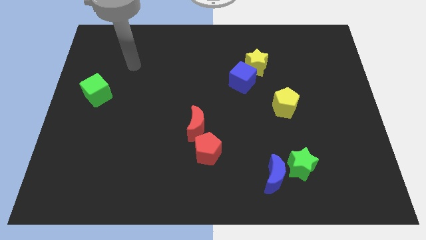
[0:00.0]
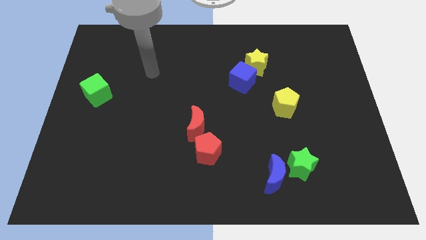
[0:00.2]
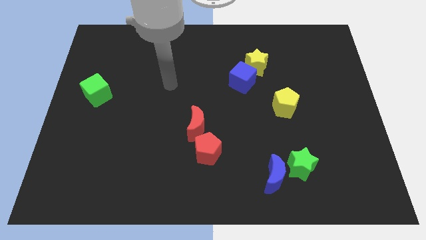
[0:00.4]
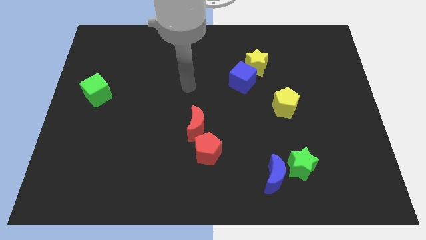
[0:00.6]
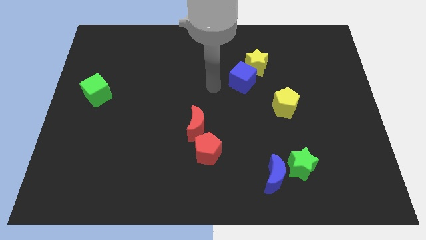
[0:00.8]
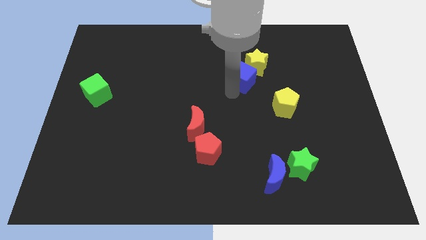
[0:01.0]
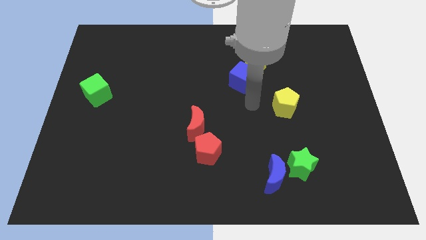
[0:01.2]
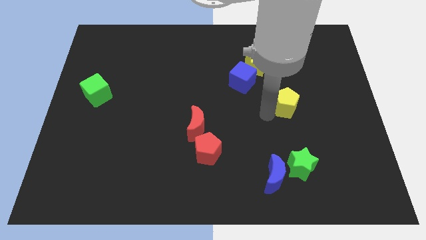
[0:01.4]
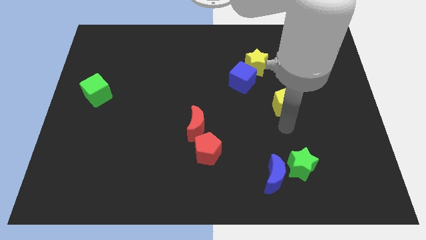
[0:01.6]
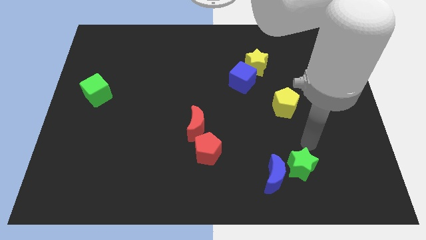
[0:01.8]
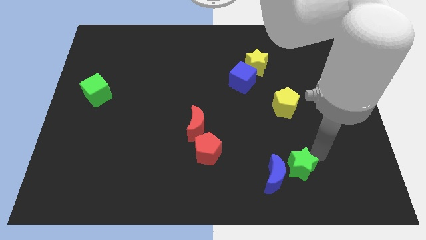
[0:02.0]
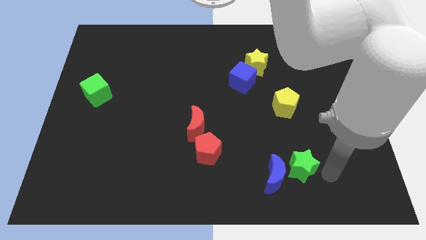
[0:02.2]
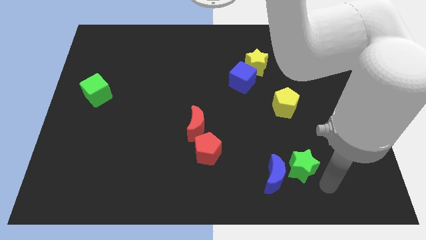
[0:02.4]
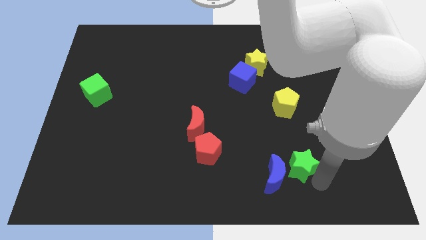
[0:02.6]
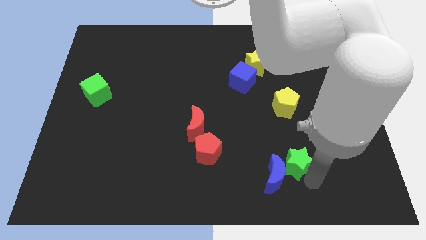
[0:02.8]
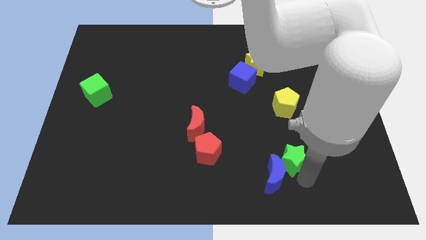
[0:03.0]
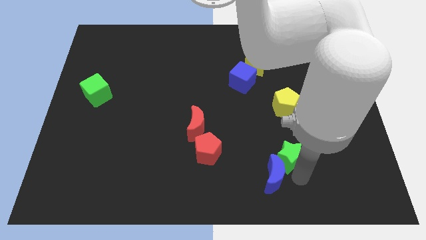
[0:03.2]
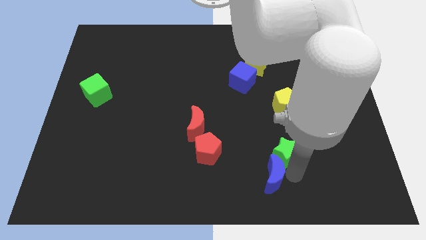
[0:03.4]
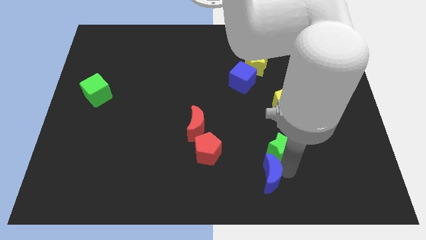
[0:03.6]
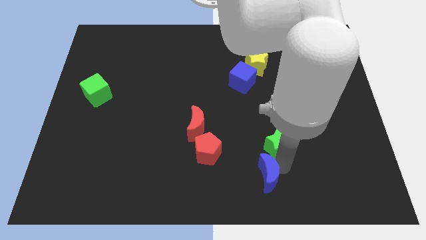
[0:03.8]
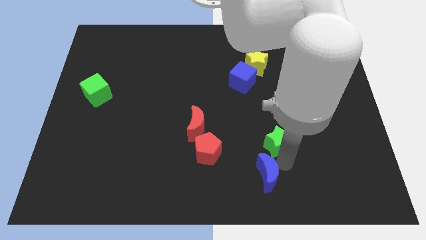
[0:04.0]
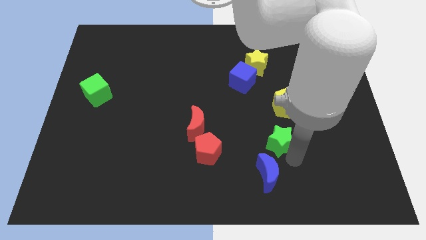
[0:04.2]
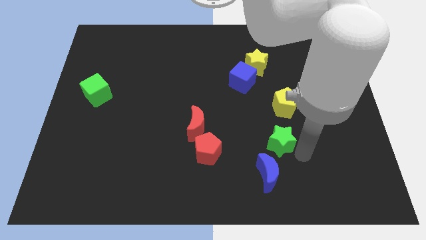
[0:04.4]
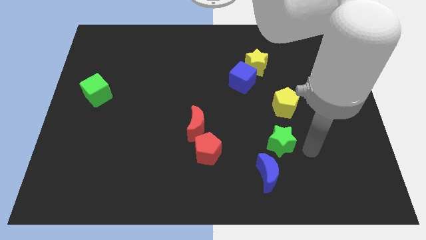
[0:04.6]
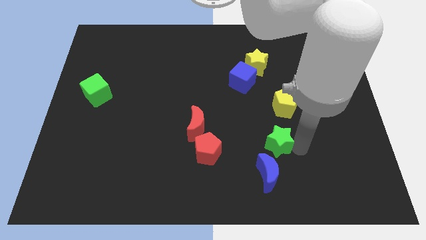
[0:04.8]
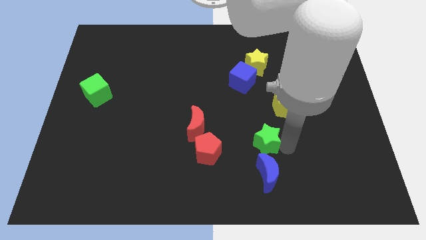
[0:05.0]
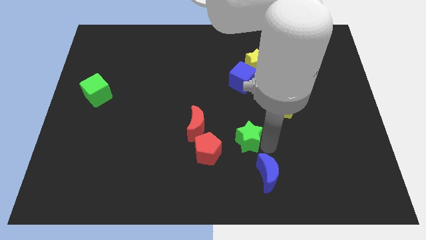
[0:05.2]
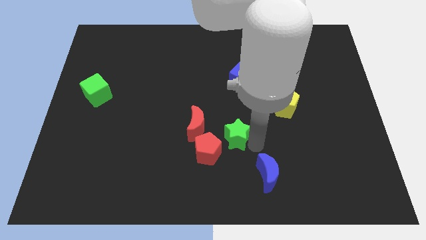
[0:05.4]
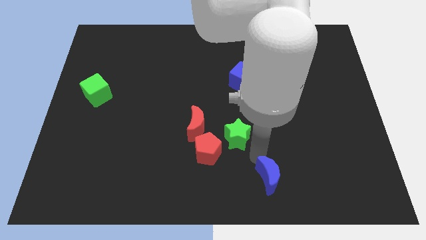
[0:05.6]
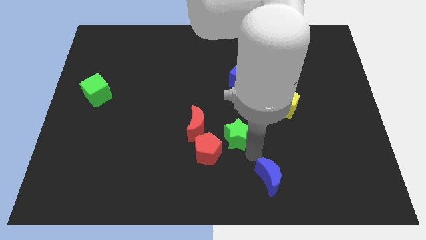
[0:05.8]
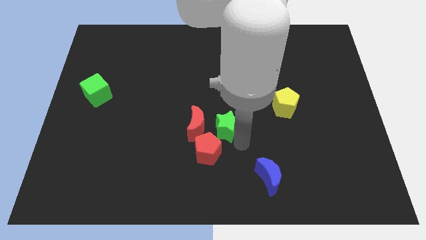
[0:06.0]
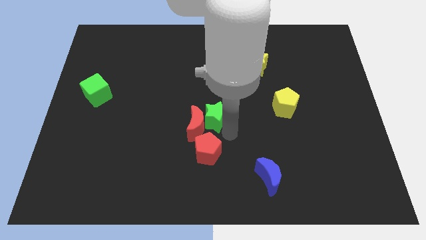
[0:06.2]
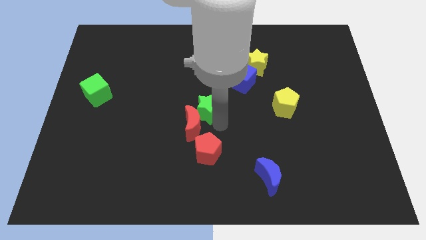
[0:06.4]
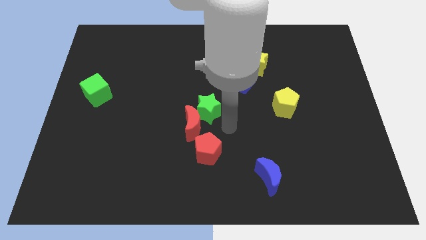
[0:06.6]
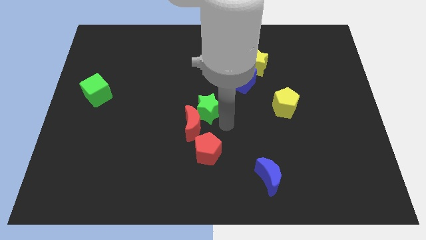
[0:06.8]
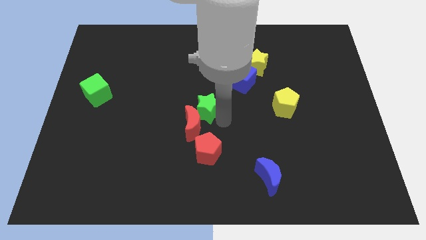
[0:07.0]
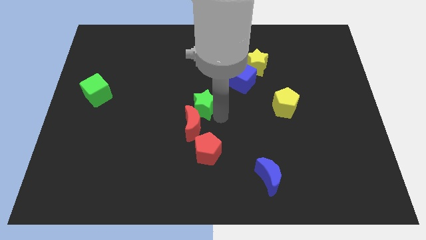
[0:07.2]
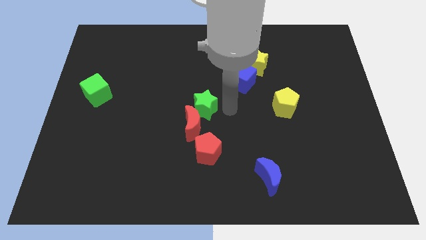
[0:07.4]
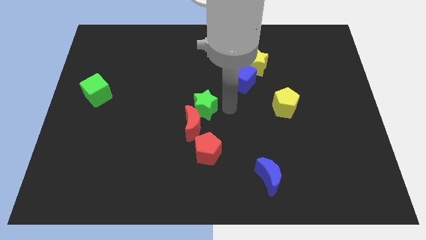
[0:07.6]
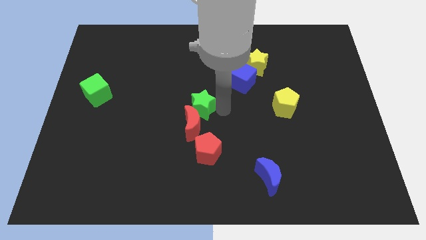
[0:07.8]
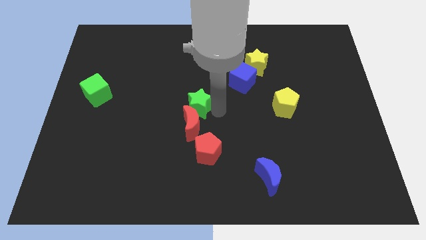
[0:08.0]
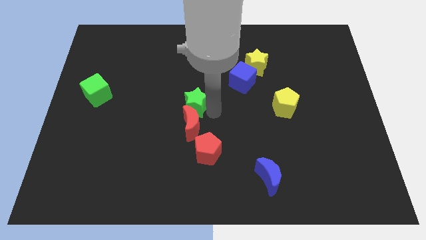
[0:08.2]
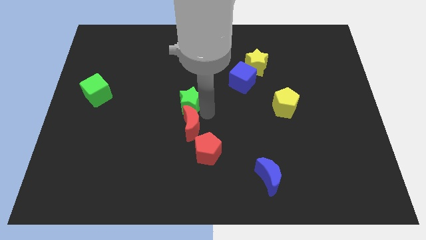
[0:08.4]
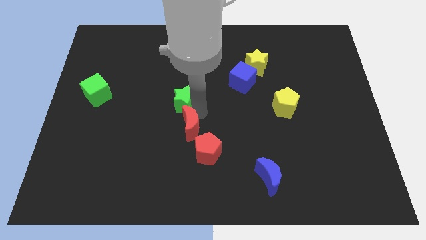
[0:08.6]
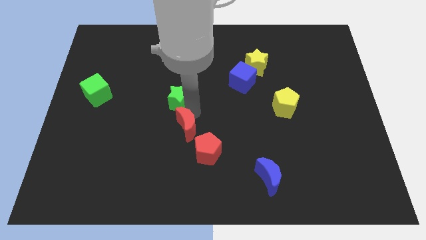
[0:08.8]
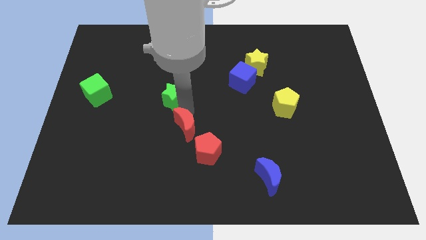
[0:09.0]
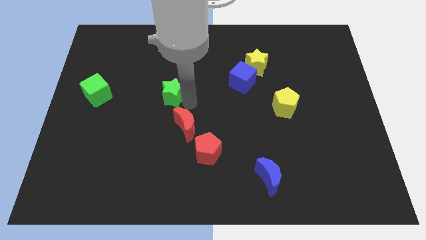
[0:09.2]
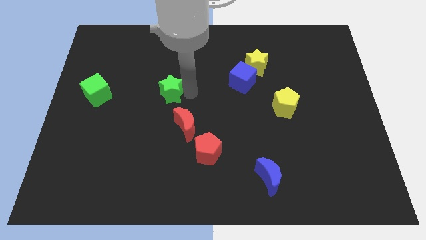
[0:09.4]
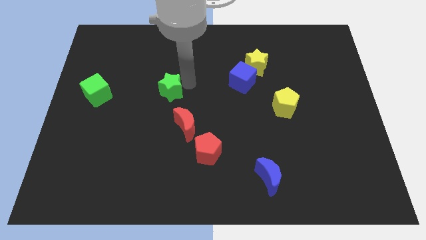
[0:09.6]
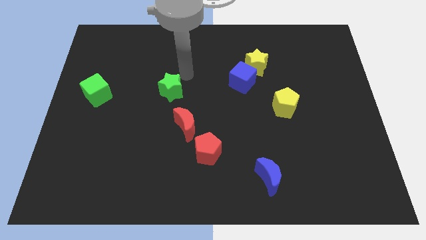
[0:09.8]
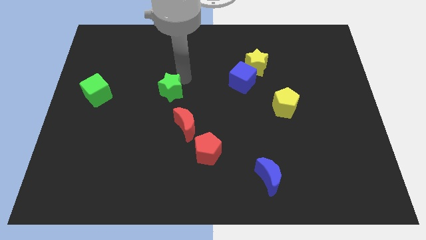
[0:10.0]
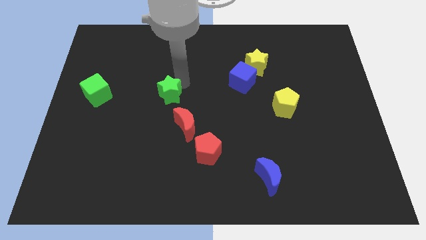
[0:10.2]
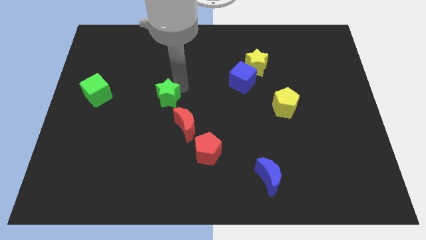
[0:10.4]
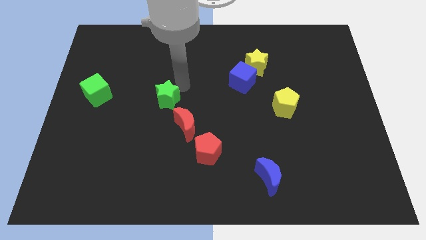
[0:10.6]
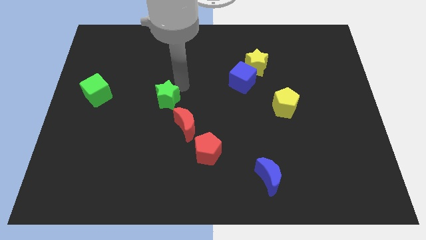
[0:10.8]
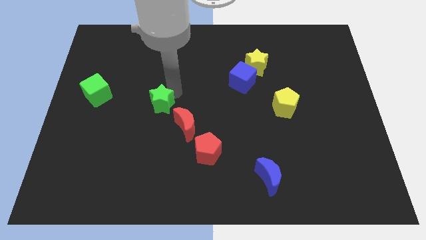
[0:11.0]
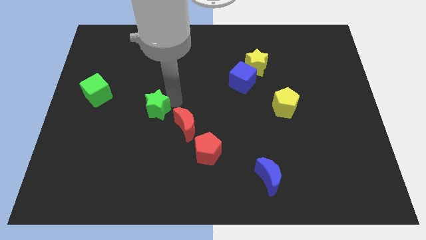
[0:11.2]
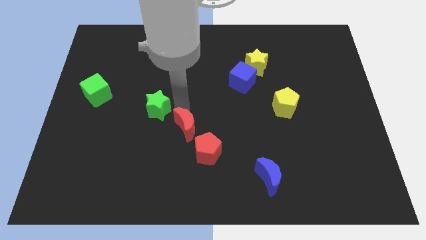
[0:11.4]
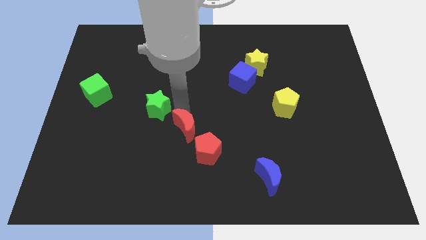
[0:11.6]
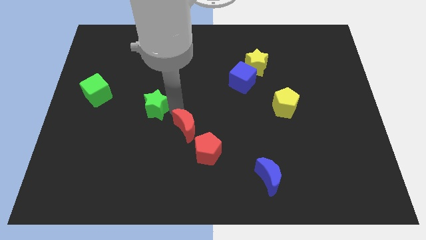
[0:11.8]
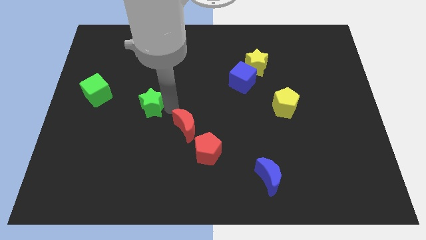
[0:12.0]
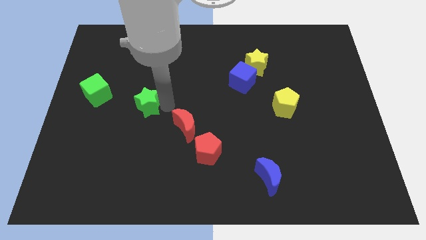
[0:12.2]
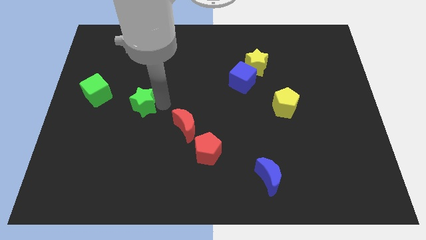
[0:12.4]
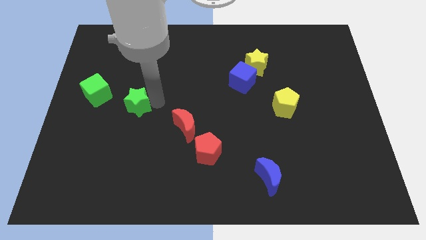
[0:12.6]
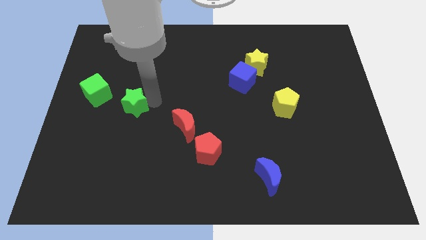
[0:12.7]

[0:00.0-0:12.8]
put the green star to the bottom right of the green cube
